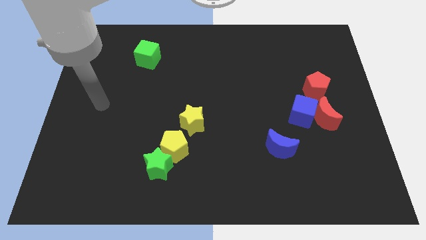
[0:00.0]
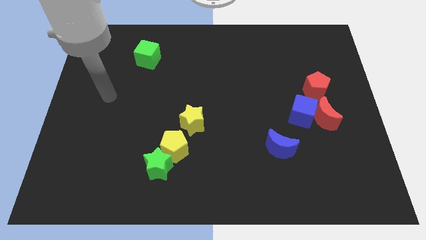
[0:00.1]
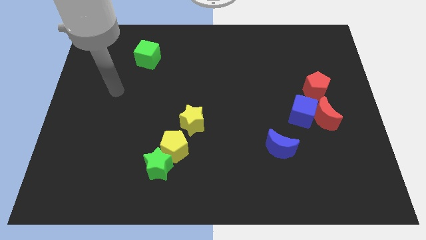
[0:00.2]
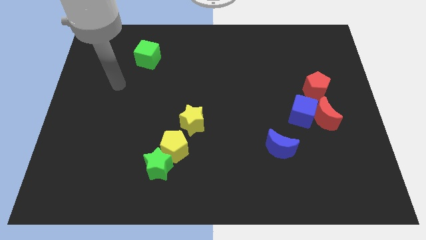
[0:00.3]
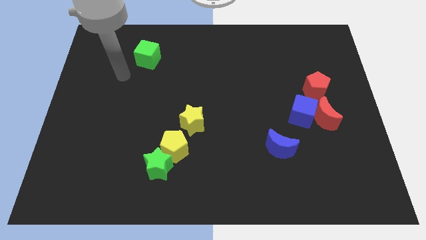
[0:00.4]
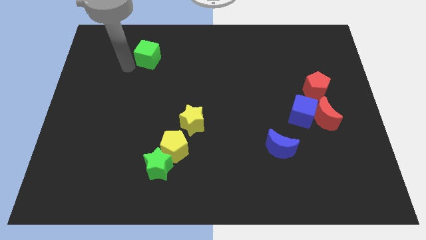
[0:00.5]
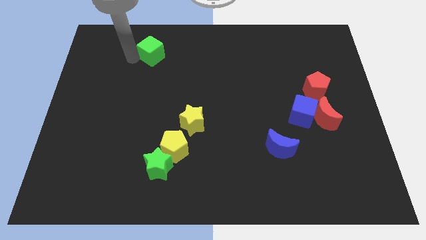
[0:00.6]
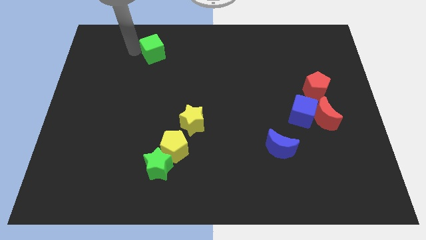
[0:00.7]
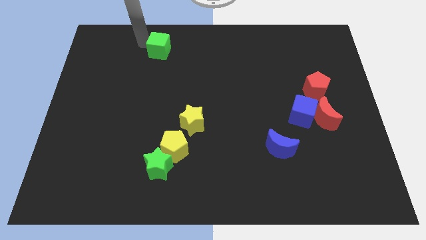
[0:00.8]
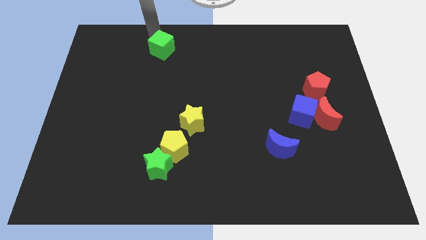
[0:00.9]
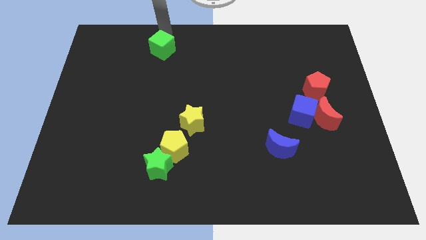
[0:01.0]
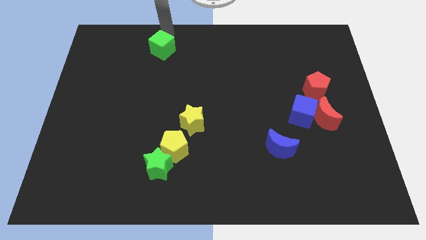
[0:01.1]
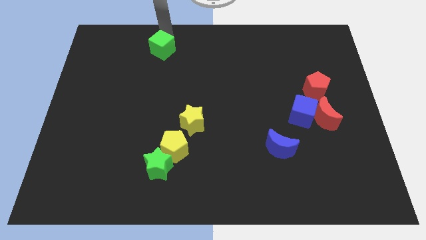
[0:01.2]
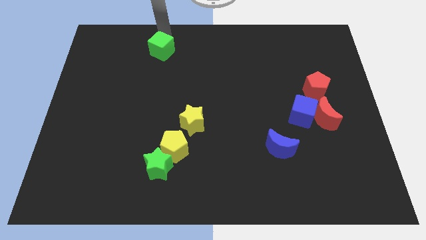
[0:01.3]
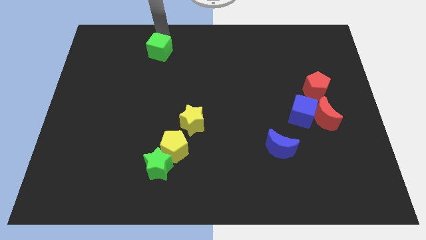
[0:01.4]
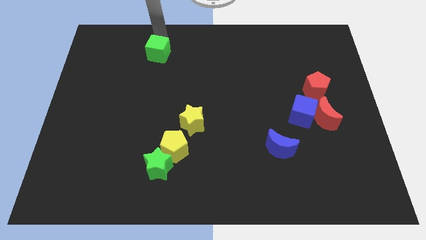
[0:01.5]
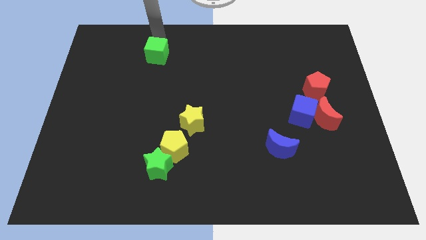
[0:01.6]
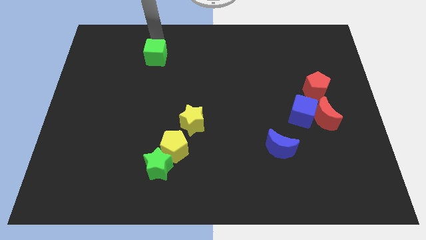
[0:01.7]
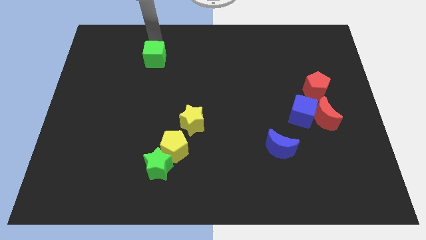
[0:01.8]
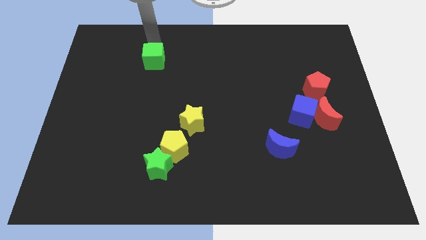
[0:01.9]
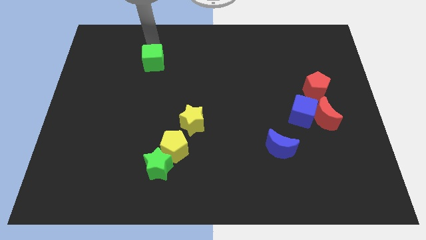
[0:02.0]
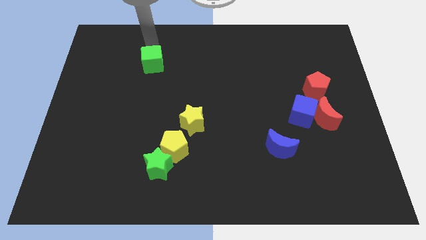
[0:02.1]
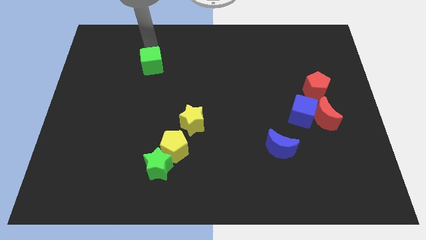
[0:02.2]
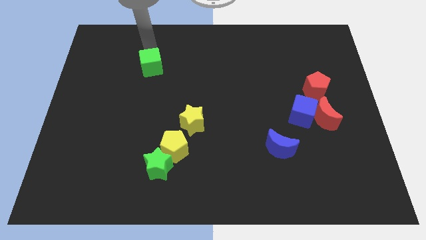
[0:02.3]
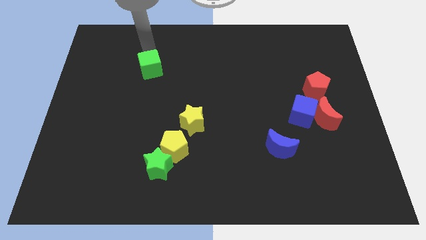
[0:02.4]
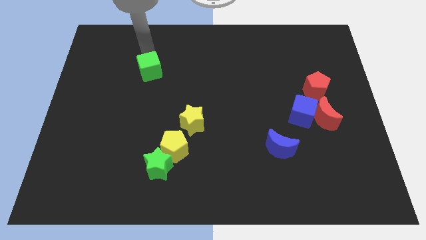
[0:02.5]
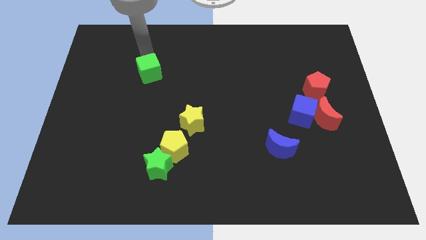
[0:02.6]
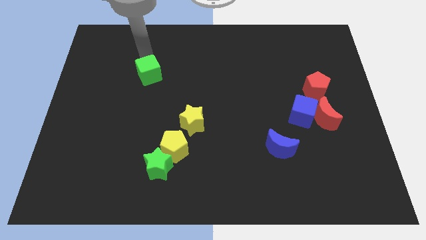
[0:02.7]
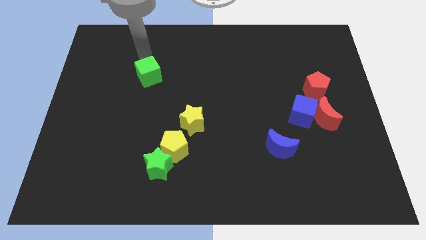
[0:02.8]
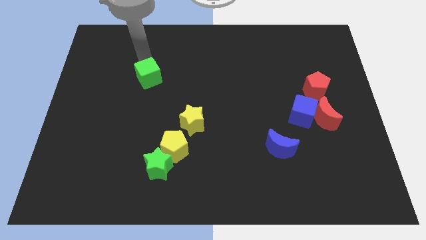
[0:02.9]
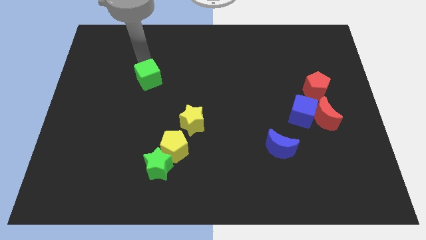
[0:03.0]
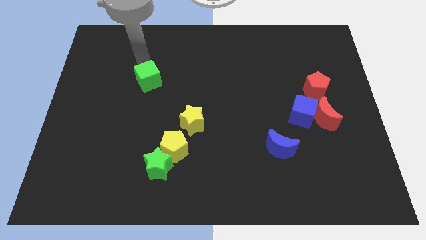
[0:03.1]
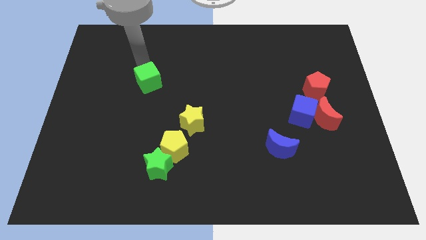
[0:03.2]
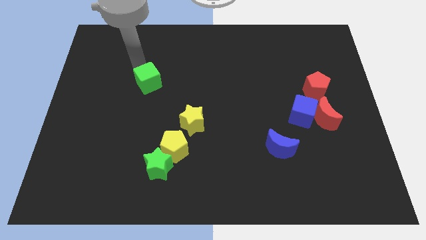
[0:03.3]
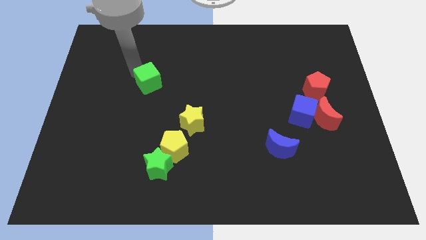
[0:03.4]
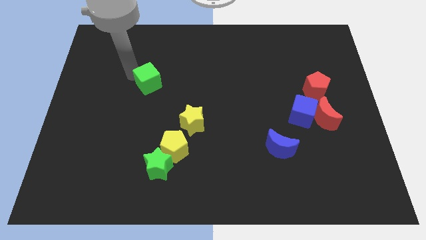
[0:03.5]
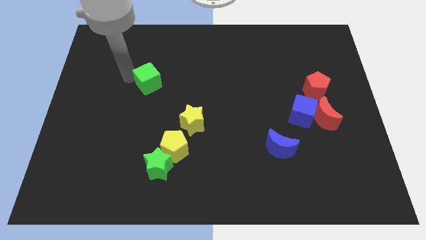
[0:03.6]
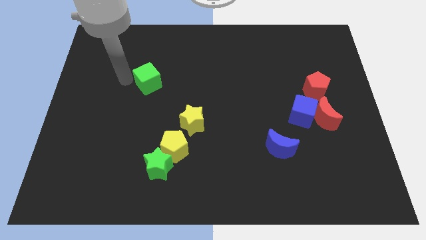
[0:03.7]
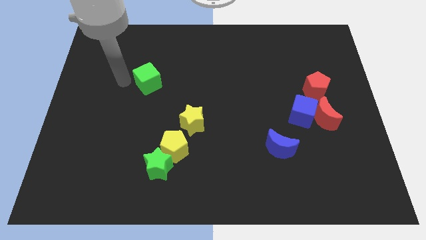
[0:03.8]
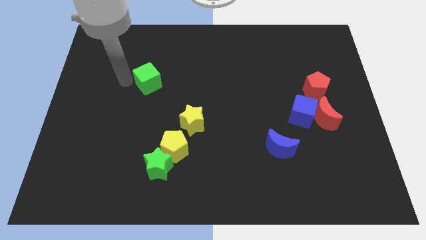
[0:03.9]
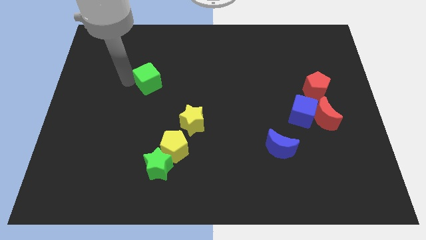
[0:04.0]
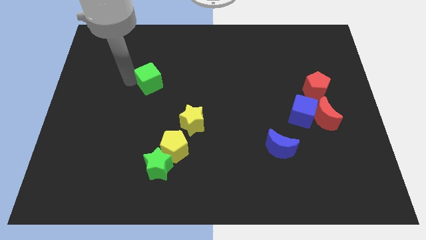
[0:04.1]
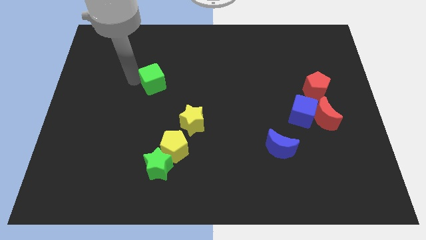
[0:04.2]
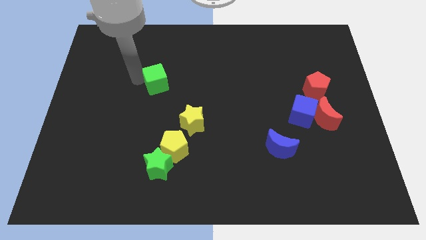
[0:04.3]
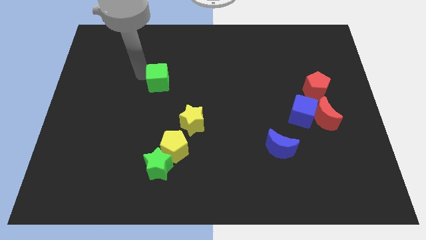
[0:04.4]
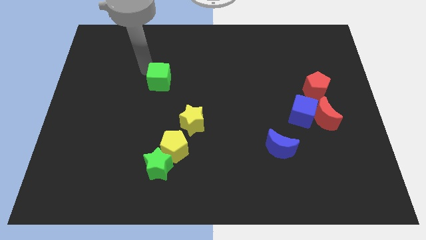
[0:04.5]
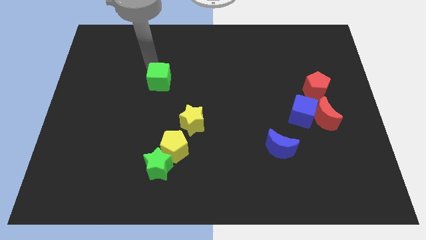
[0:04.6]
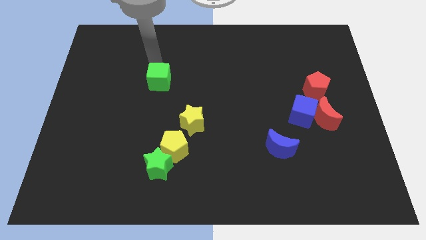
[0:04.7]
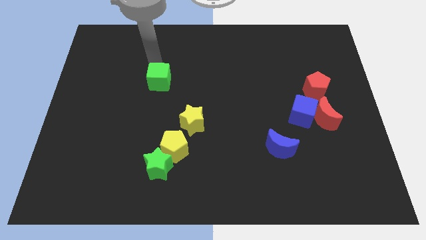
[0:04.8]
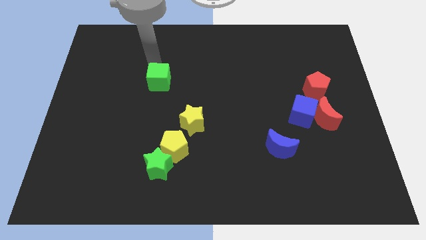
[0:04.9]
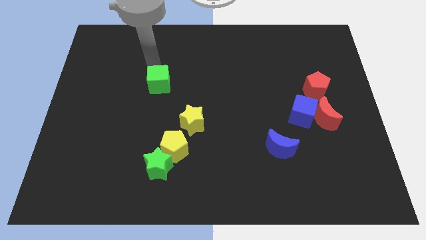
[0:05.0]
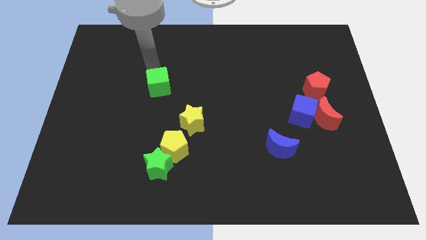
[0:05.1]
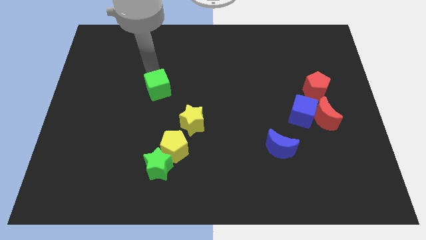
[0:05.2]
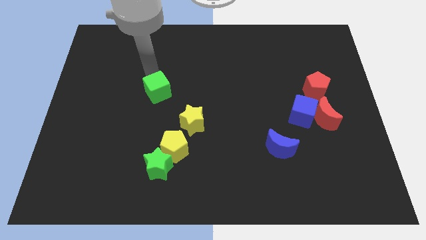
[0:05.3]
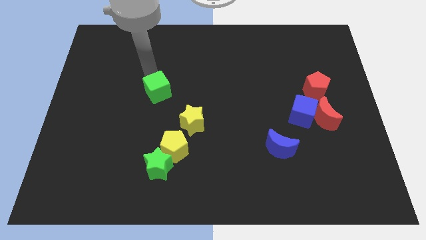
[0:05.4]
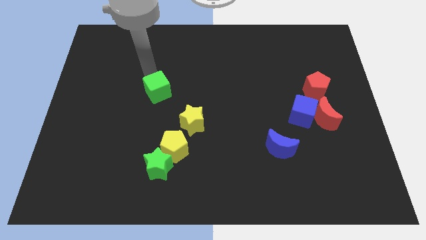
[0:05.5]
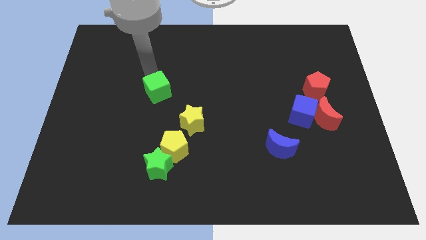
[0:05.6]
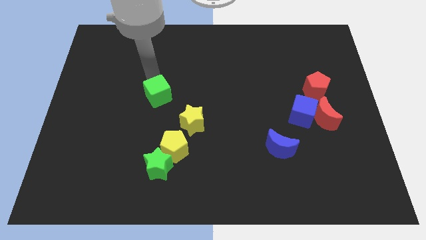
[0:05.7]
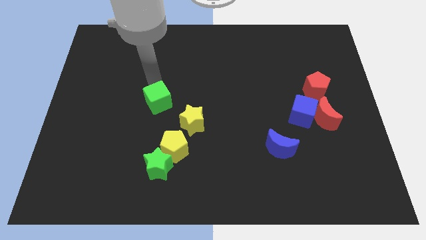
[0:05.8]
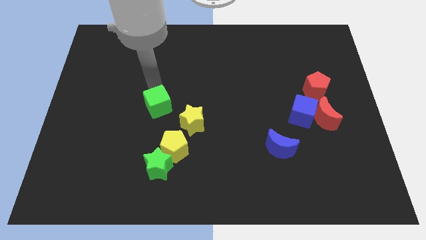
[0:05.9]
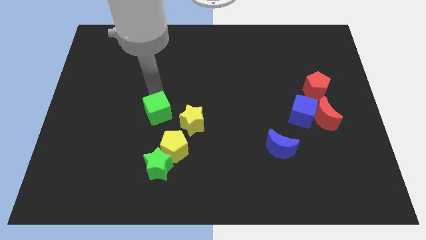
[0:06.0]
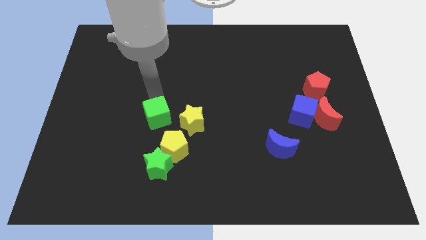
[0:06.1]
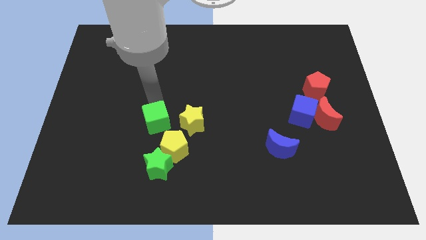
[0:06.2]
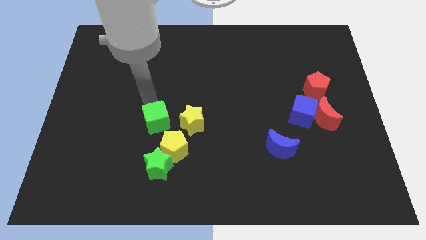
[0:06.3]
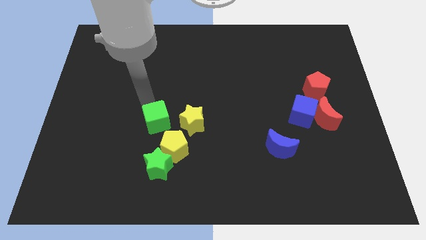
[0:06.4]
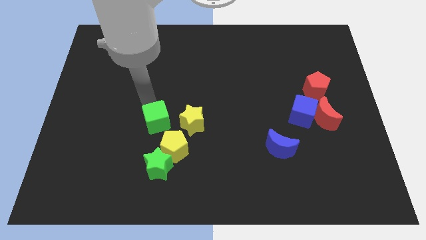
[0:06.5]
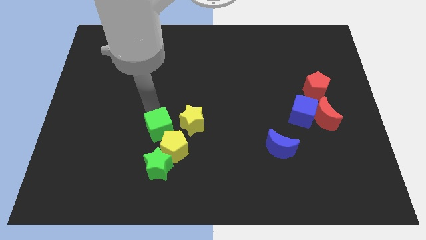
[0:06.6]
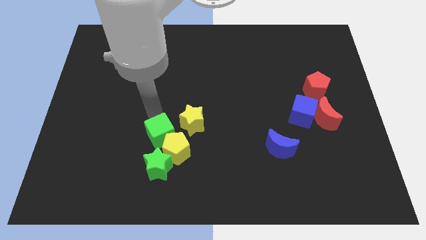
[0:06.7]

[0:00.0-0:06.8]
put the green cube towards the yellow pentagon

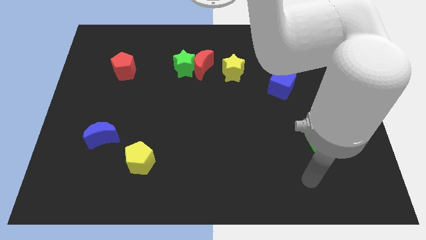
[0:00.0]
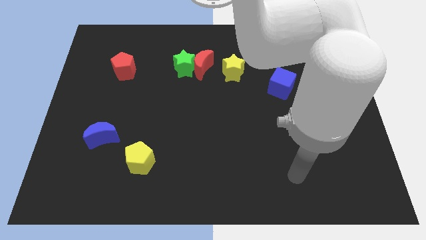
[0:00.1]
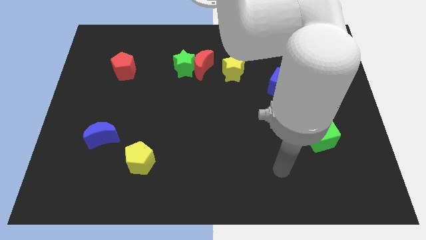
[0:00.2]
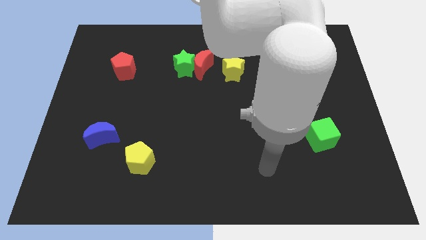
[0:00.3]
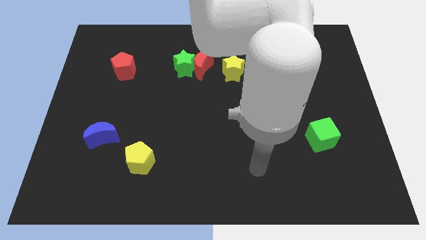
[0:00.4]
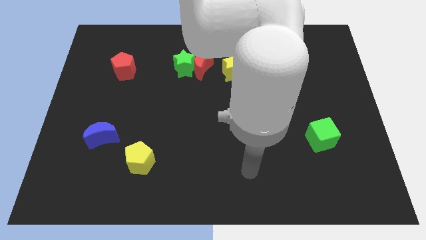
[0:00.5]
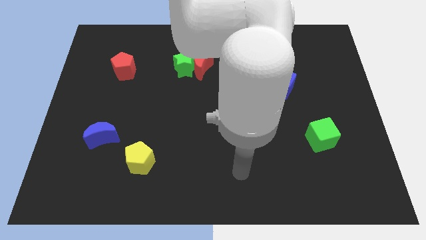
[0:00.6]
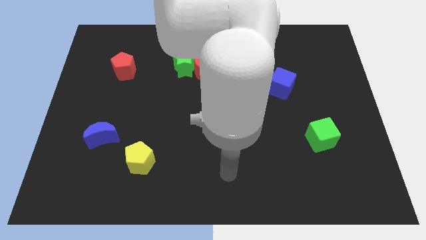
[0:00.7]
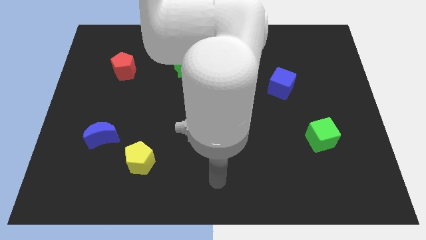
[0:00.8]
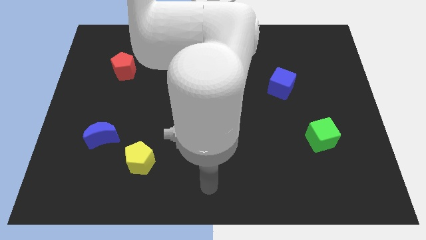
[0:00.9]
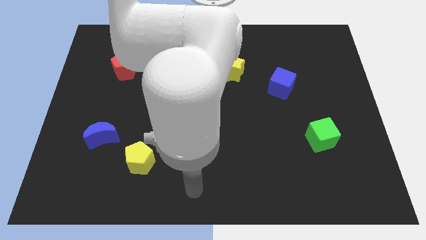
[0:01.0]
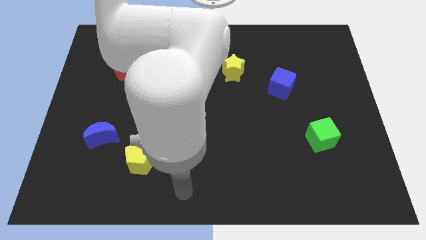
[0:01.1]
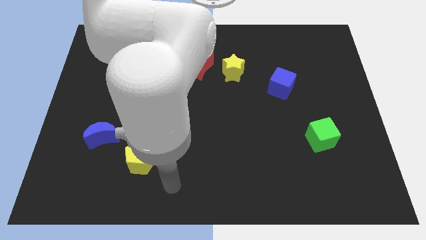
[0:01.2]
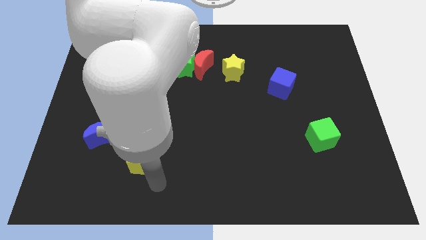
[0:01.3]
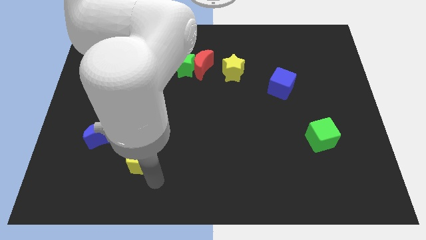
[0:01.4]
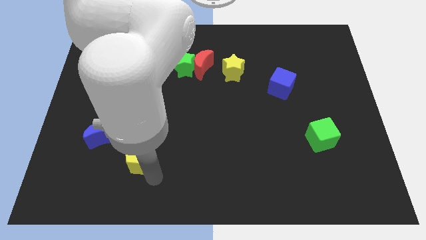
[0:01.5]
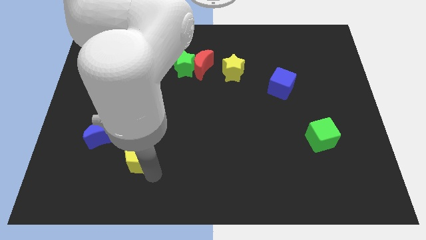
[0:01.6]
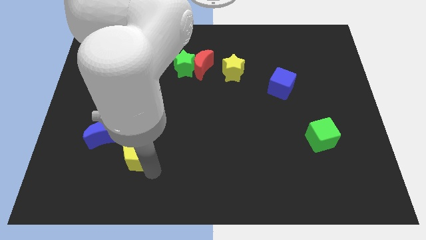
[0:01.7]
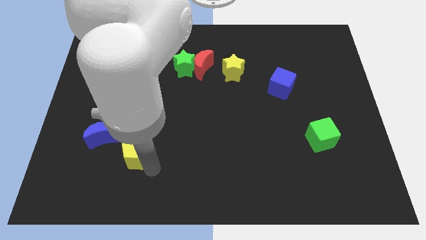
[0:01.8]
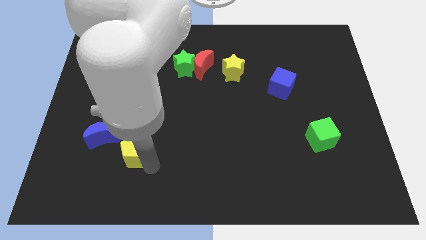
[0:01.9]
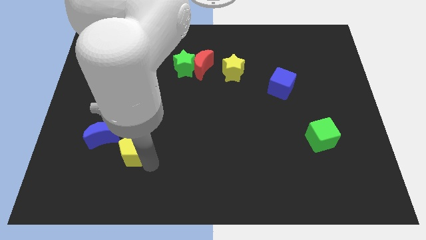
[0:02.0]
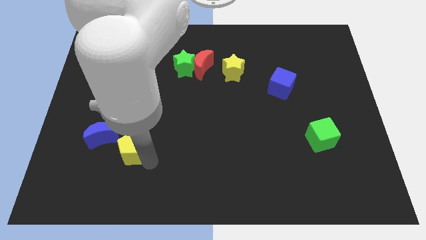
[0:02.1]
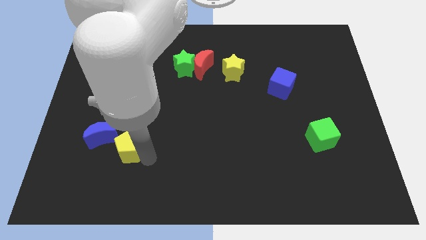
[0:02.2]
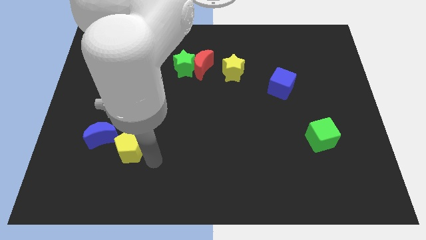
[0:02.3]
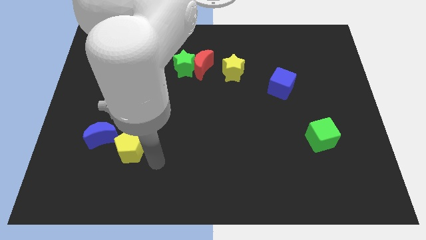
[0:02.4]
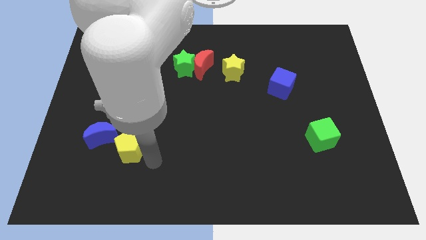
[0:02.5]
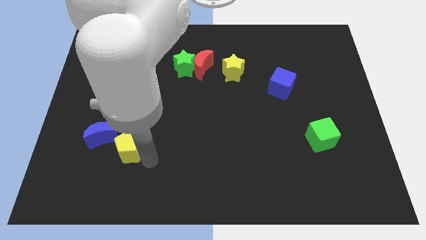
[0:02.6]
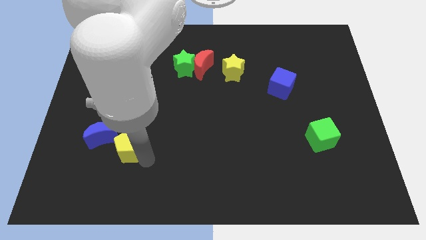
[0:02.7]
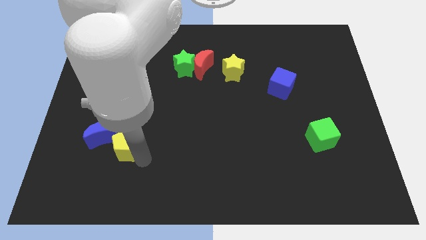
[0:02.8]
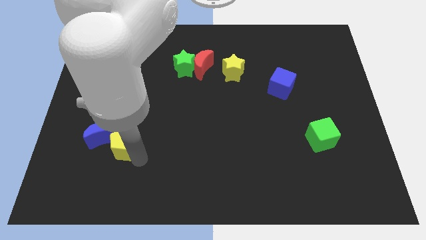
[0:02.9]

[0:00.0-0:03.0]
slide the yellow pentagon to the blue moon
